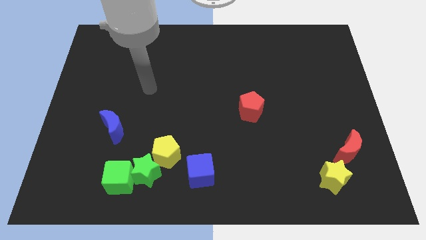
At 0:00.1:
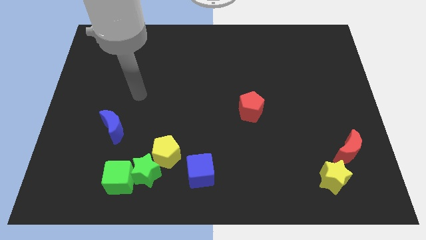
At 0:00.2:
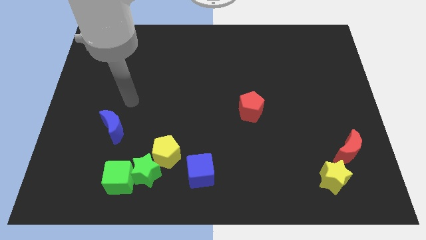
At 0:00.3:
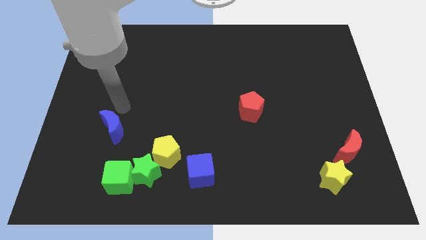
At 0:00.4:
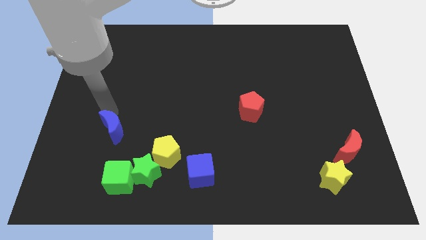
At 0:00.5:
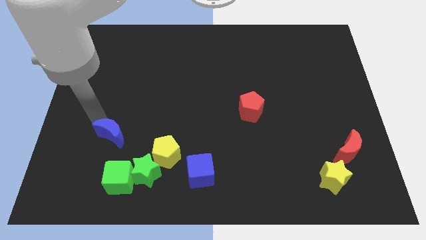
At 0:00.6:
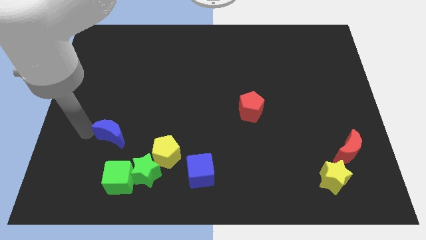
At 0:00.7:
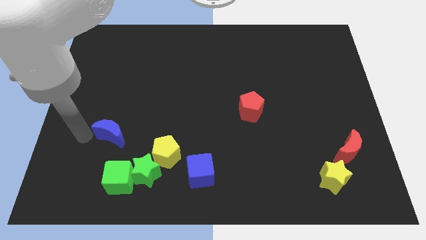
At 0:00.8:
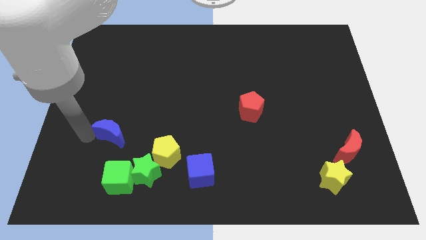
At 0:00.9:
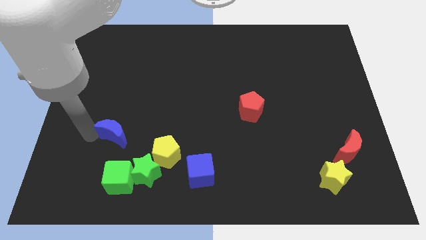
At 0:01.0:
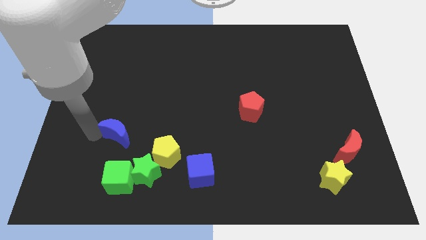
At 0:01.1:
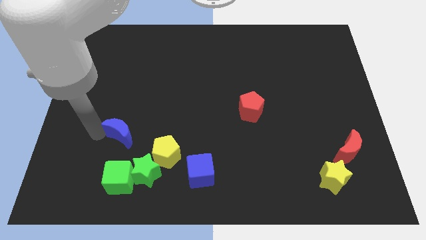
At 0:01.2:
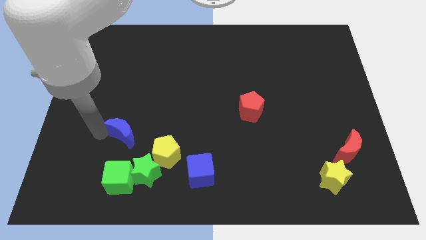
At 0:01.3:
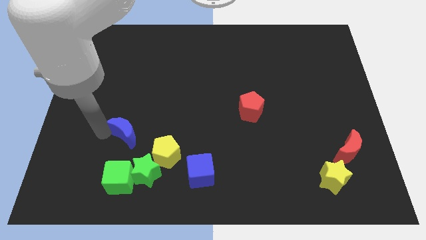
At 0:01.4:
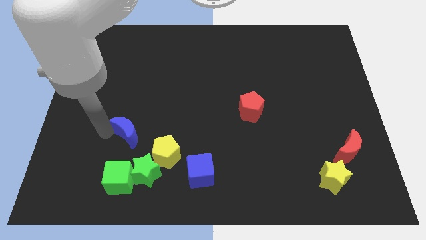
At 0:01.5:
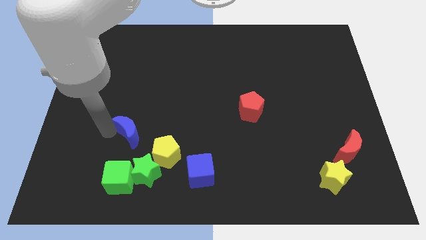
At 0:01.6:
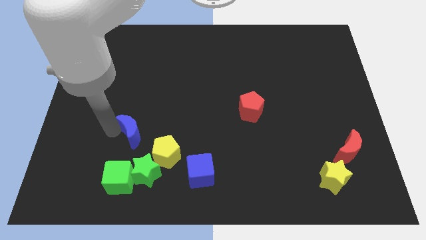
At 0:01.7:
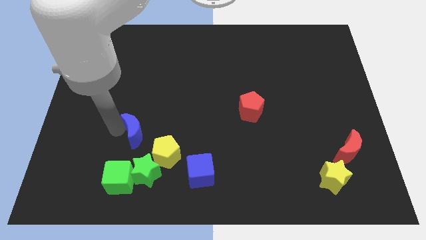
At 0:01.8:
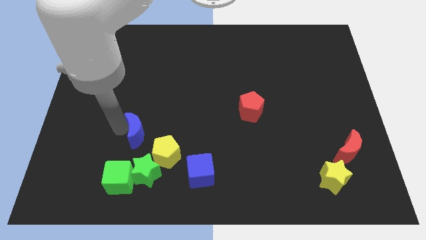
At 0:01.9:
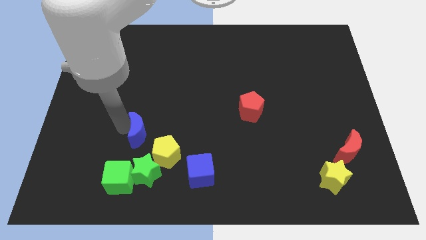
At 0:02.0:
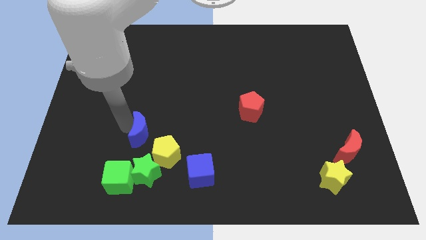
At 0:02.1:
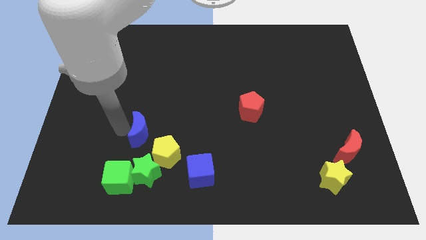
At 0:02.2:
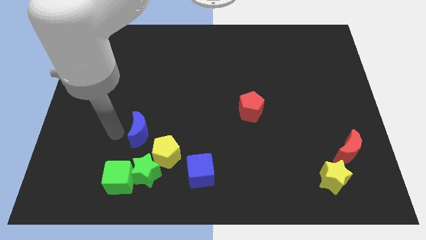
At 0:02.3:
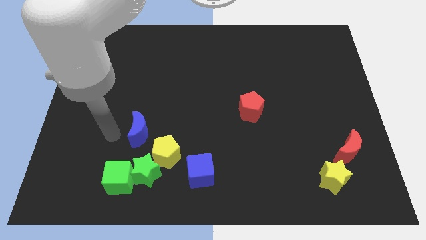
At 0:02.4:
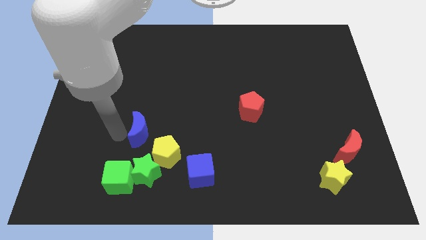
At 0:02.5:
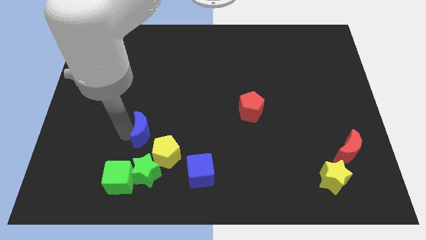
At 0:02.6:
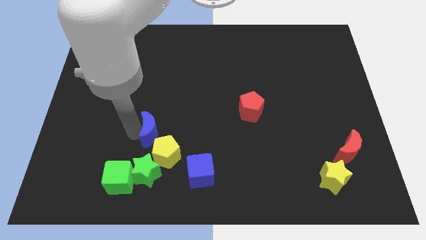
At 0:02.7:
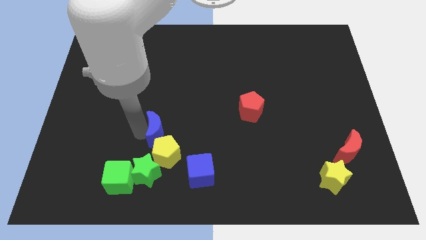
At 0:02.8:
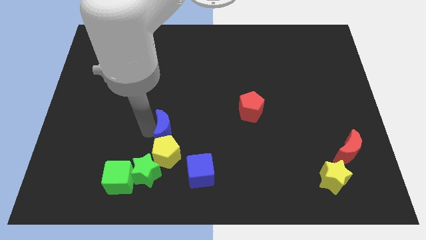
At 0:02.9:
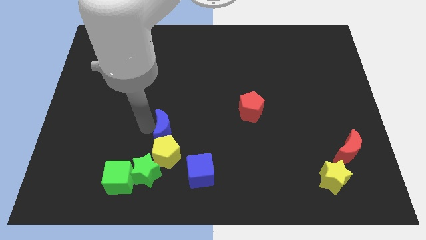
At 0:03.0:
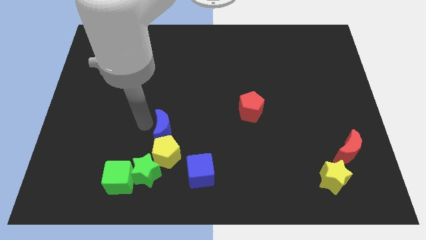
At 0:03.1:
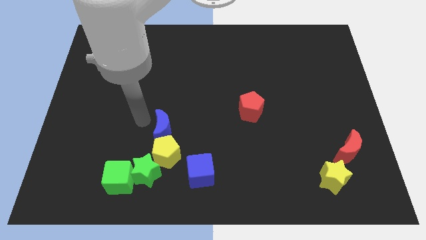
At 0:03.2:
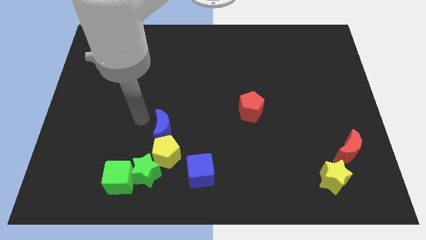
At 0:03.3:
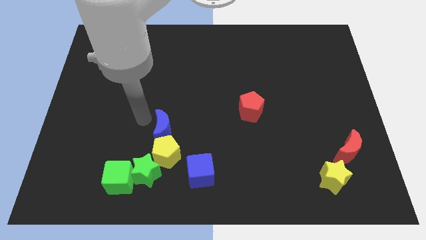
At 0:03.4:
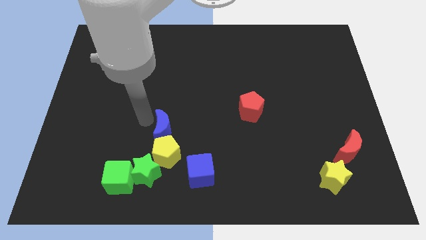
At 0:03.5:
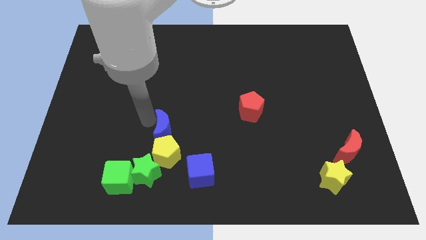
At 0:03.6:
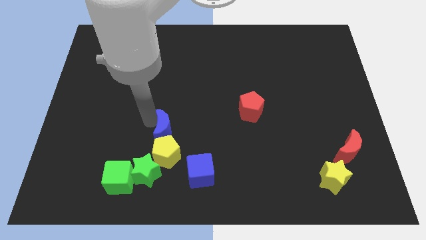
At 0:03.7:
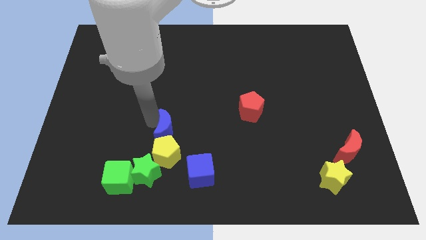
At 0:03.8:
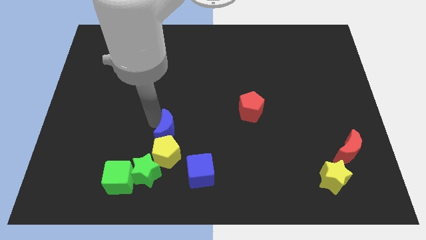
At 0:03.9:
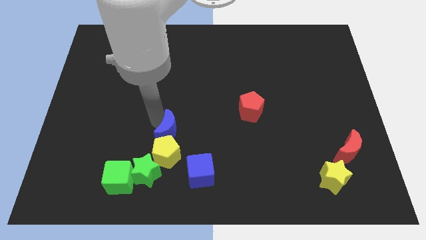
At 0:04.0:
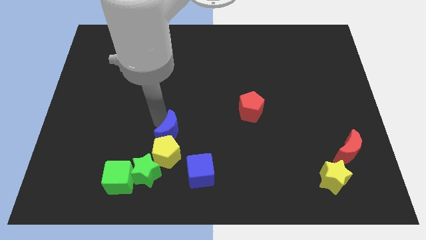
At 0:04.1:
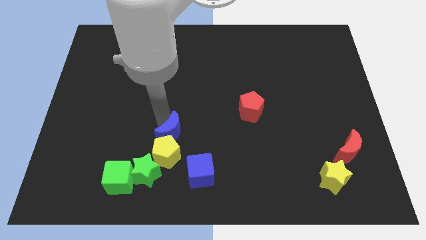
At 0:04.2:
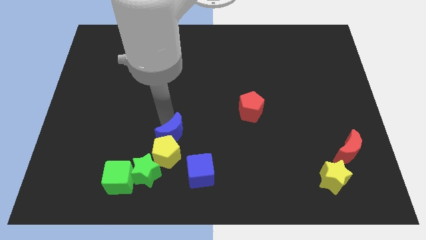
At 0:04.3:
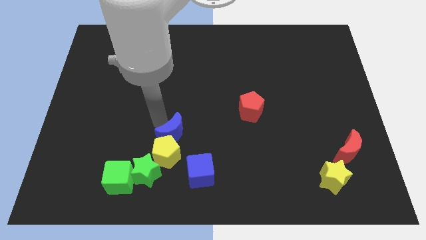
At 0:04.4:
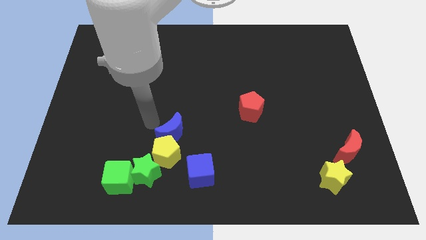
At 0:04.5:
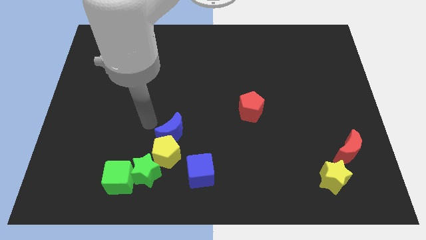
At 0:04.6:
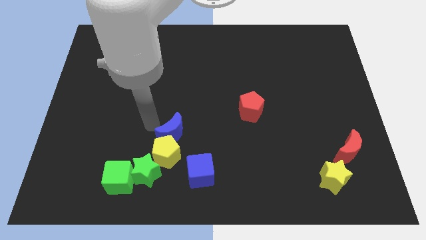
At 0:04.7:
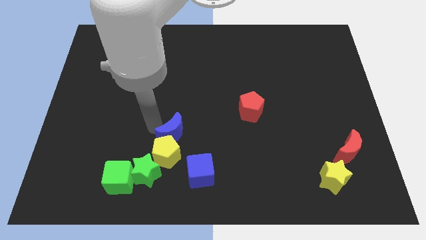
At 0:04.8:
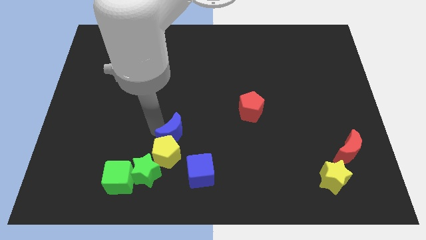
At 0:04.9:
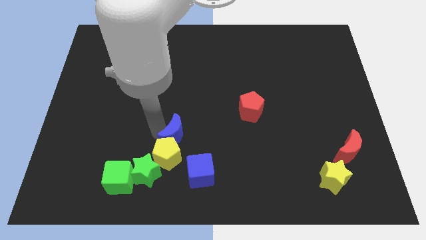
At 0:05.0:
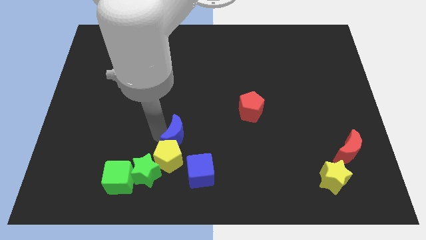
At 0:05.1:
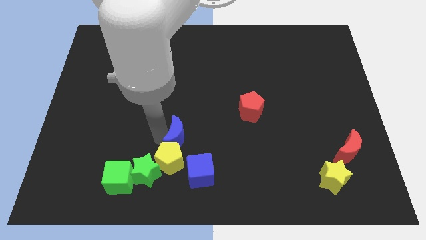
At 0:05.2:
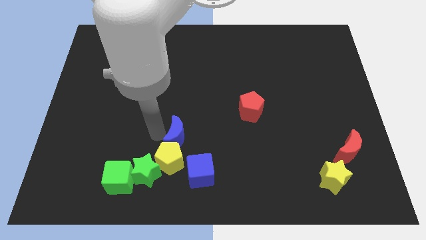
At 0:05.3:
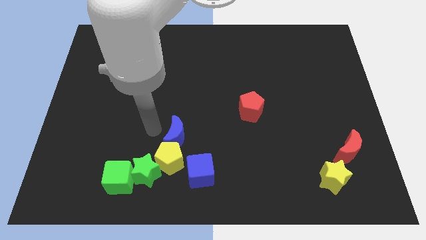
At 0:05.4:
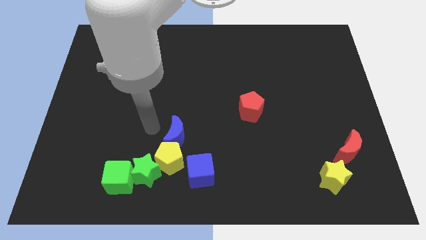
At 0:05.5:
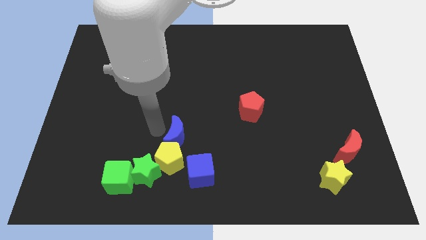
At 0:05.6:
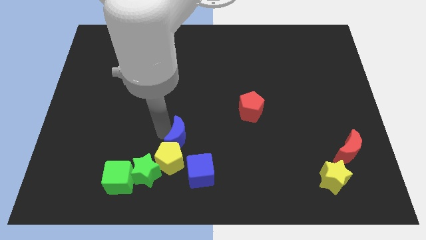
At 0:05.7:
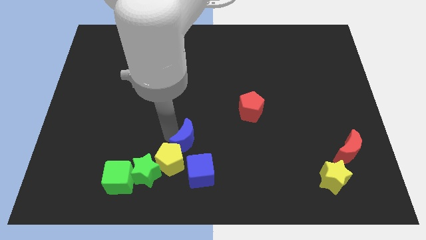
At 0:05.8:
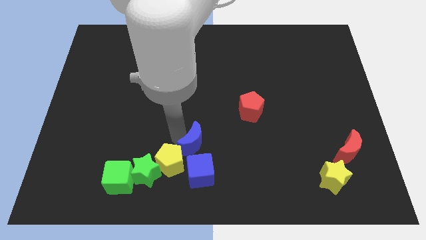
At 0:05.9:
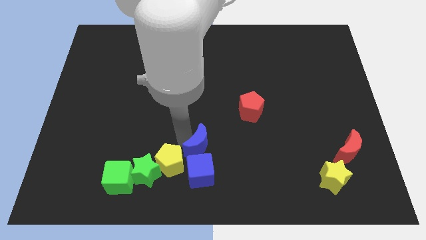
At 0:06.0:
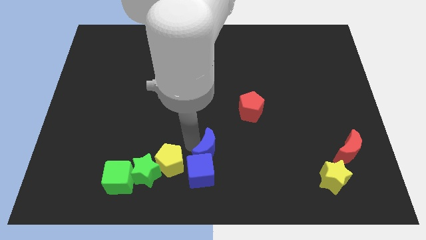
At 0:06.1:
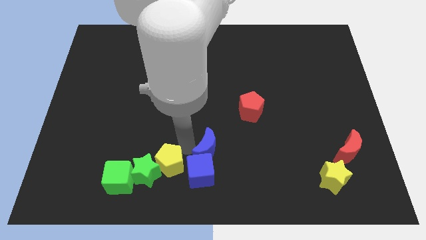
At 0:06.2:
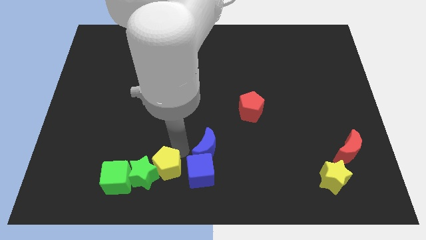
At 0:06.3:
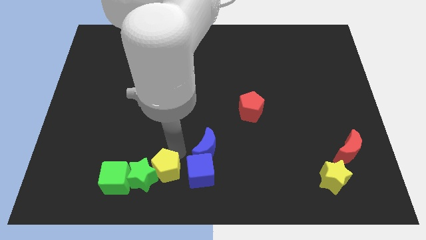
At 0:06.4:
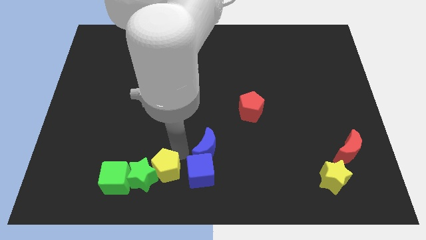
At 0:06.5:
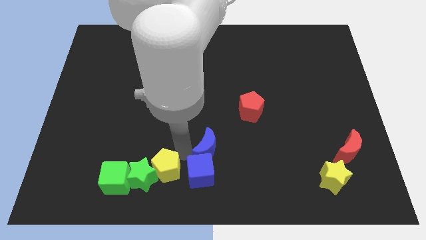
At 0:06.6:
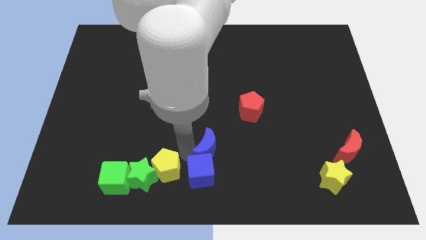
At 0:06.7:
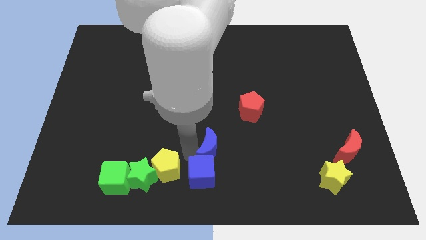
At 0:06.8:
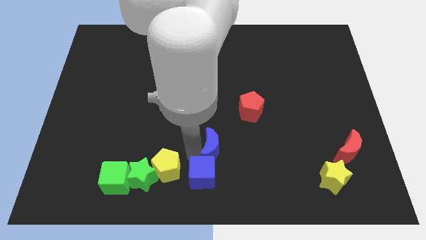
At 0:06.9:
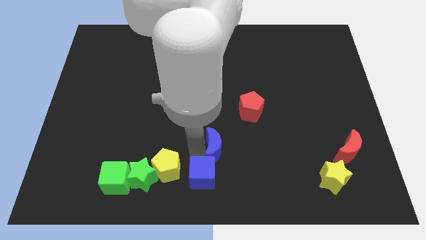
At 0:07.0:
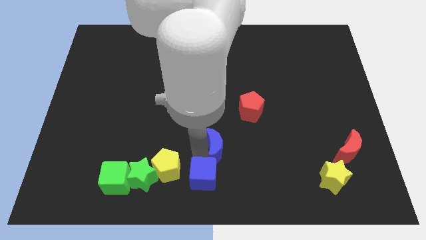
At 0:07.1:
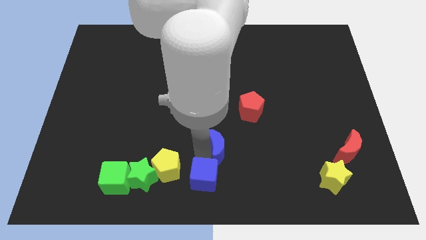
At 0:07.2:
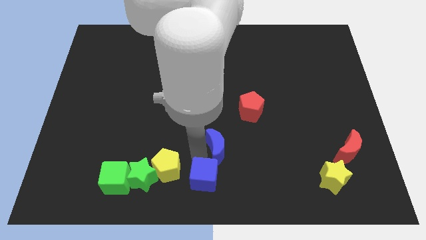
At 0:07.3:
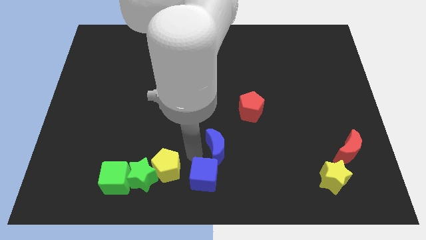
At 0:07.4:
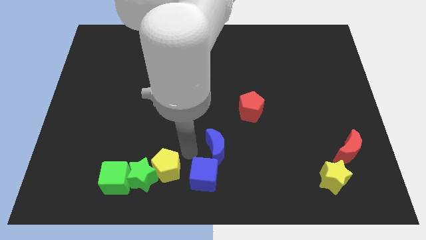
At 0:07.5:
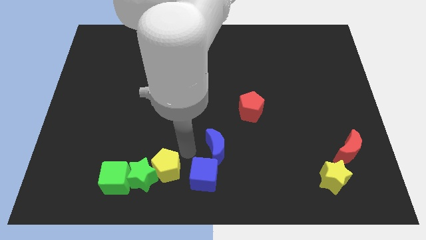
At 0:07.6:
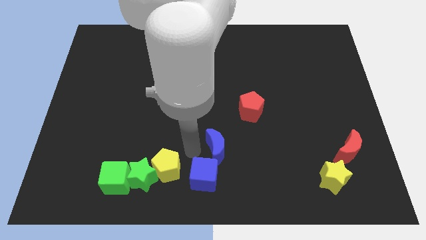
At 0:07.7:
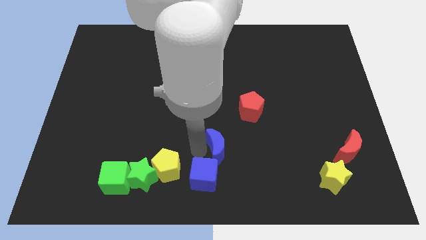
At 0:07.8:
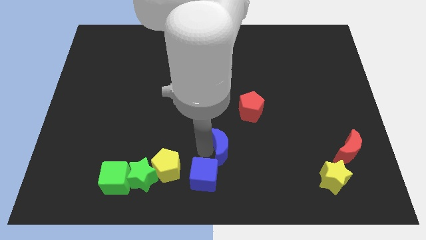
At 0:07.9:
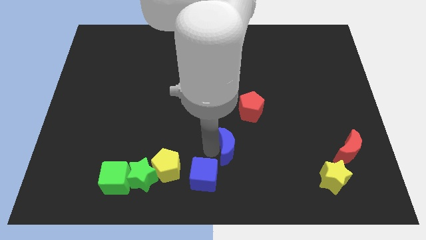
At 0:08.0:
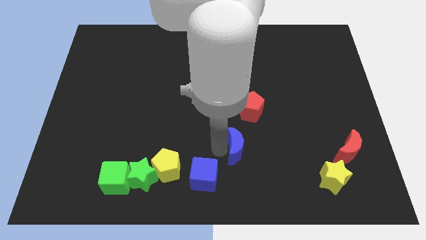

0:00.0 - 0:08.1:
put the blue moon to the bottom of the red pentagon
